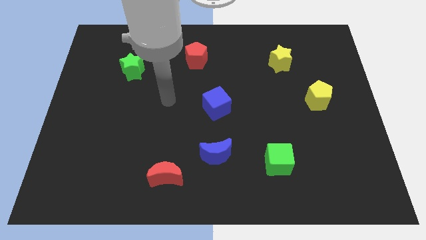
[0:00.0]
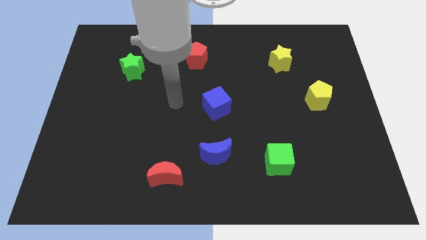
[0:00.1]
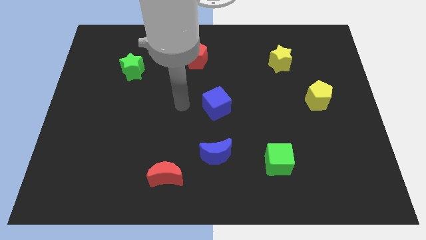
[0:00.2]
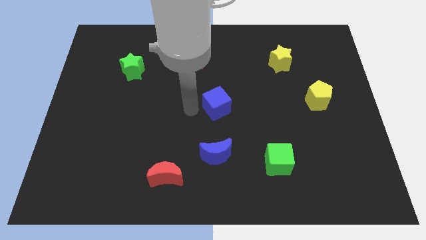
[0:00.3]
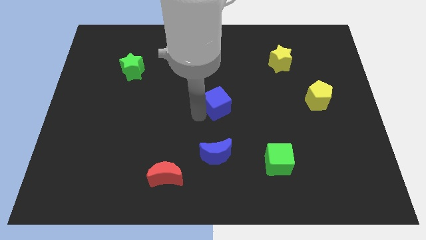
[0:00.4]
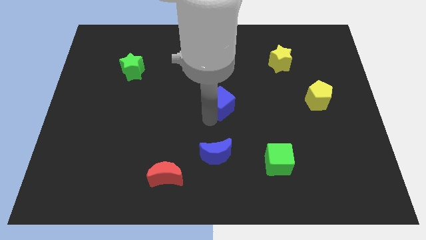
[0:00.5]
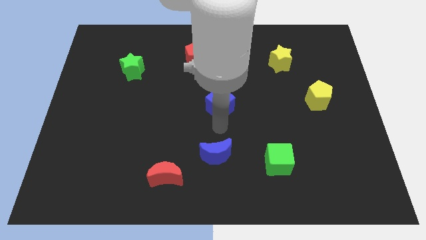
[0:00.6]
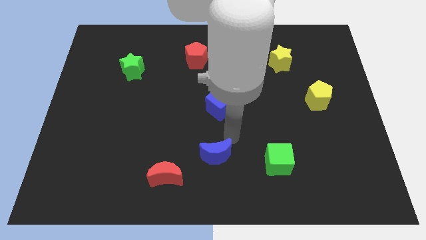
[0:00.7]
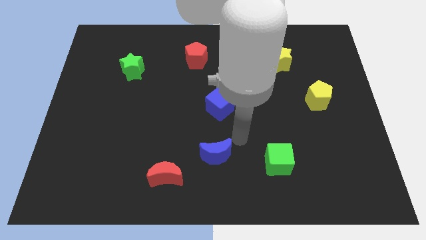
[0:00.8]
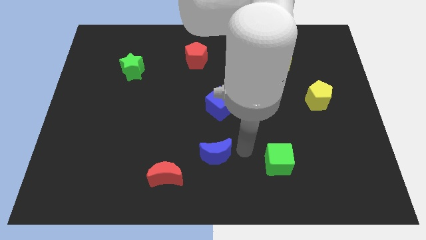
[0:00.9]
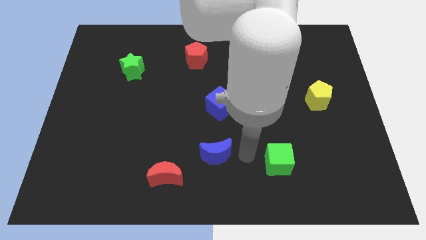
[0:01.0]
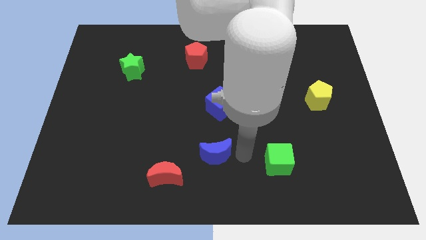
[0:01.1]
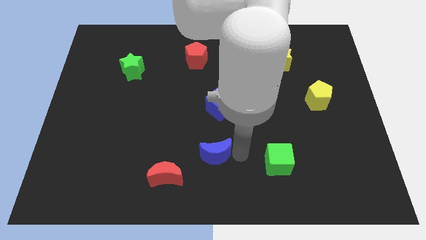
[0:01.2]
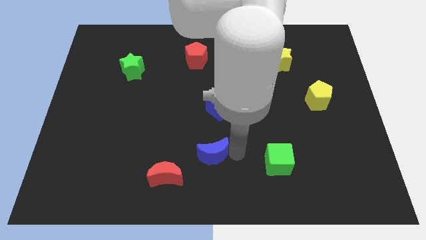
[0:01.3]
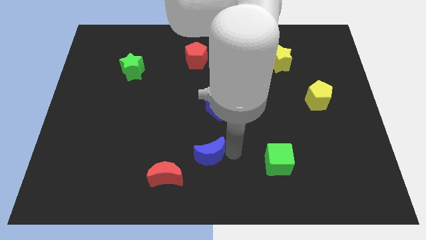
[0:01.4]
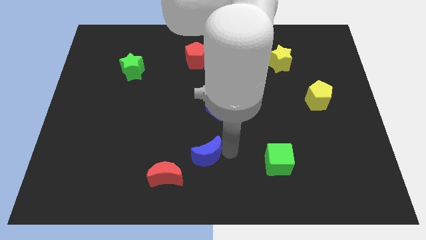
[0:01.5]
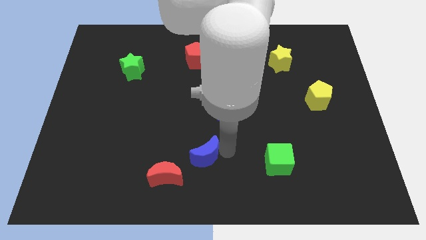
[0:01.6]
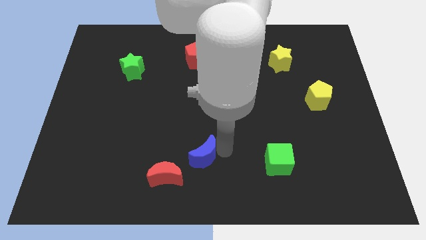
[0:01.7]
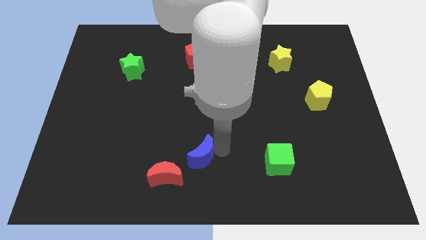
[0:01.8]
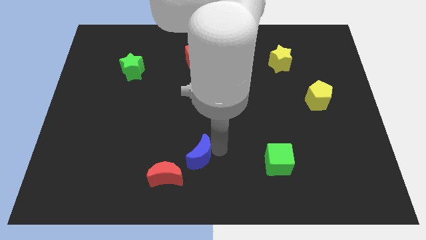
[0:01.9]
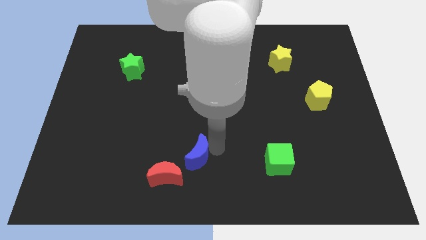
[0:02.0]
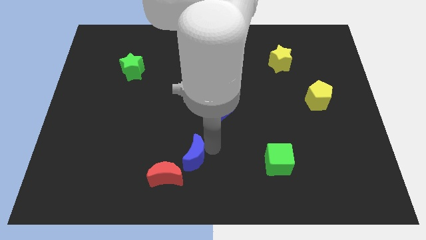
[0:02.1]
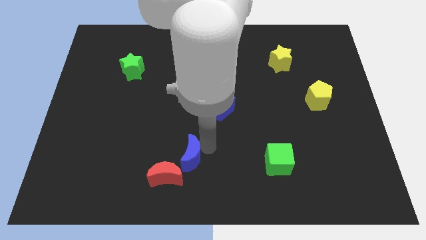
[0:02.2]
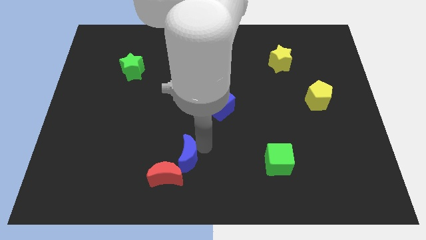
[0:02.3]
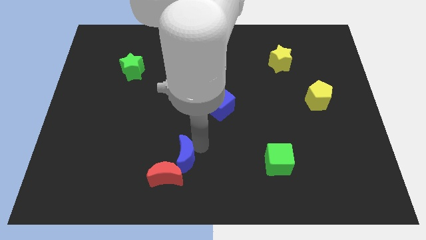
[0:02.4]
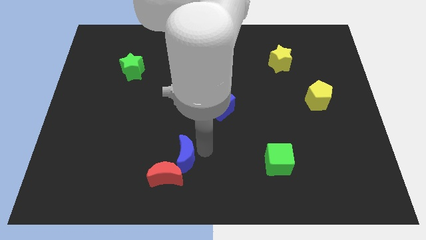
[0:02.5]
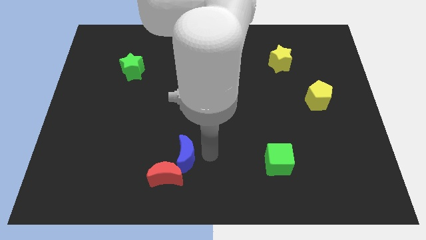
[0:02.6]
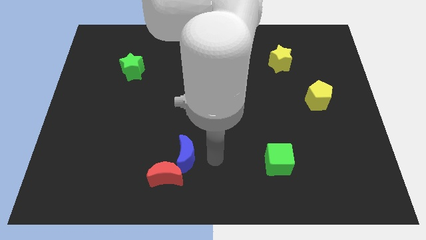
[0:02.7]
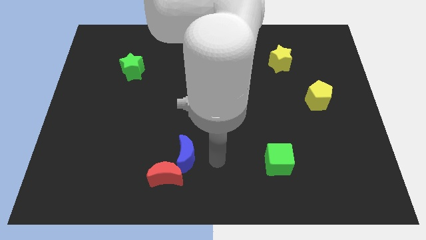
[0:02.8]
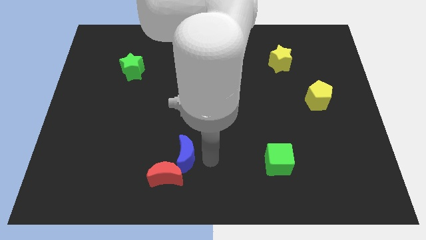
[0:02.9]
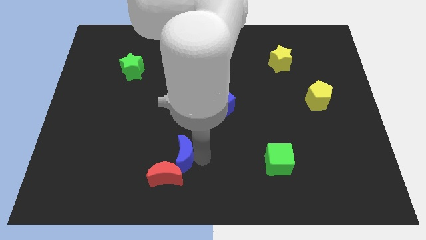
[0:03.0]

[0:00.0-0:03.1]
slide the blue moon a bit to the left

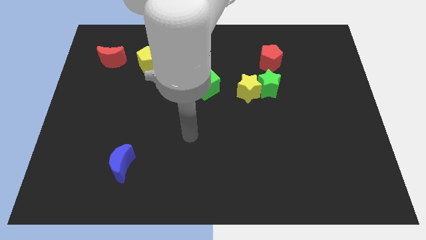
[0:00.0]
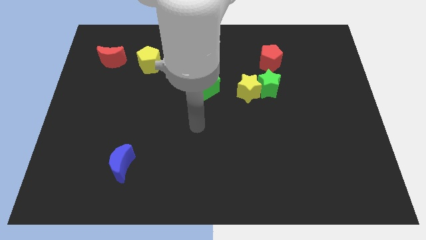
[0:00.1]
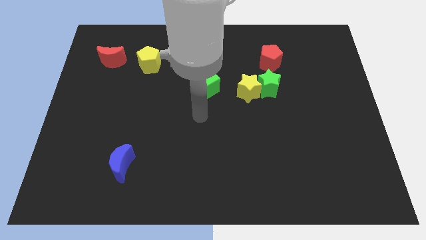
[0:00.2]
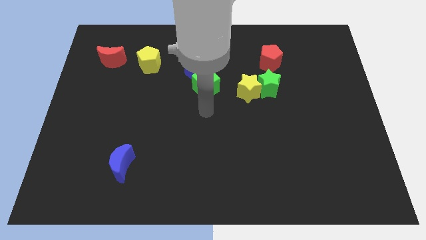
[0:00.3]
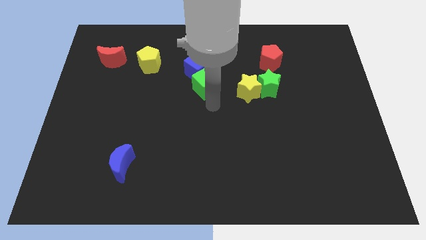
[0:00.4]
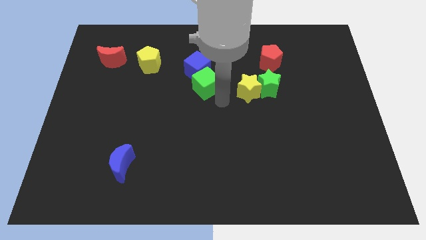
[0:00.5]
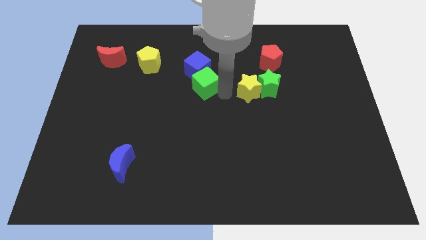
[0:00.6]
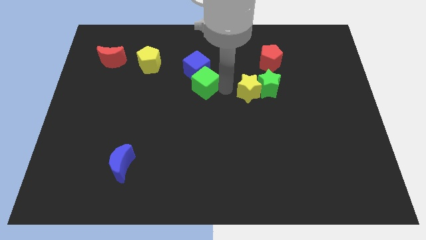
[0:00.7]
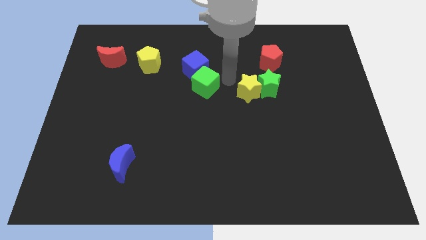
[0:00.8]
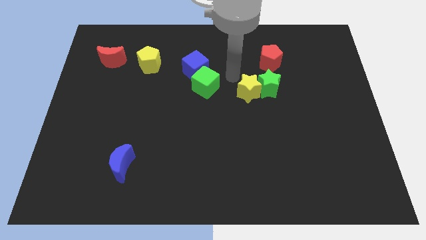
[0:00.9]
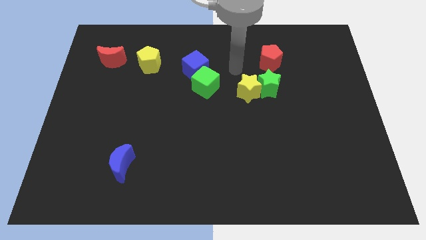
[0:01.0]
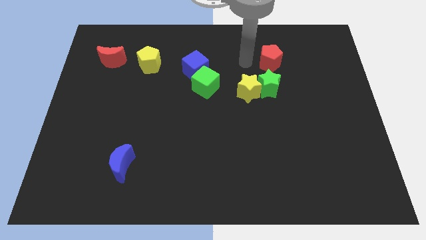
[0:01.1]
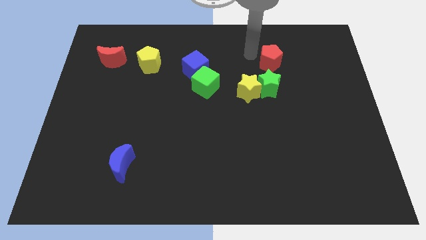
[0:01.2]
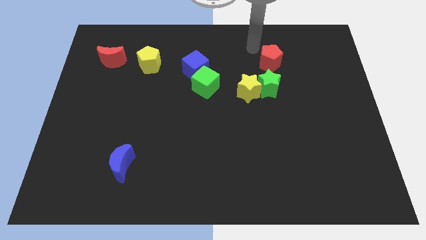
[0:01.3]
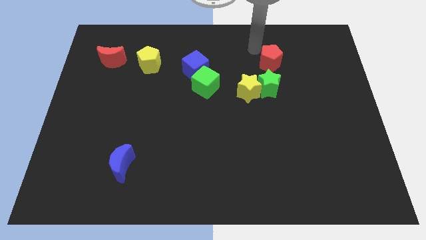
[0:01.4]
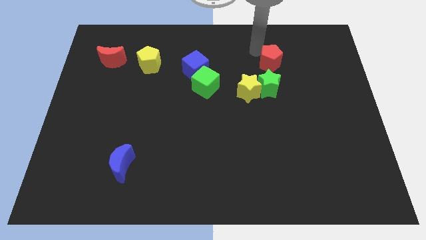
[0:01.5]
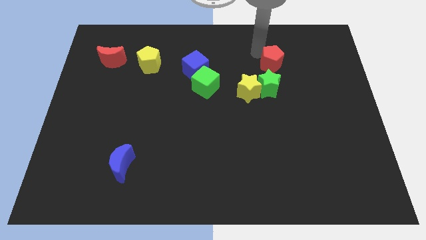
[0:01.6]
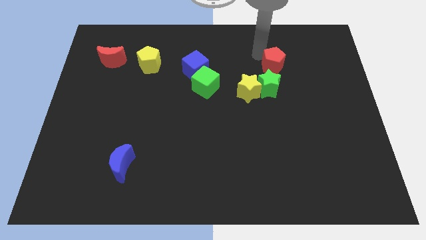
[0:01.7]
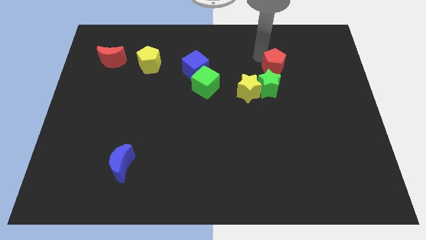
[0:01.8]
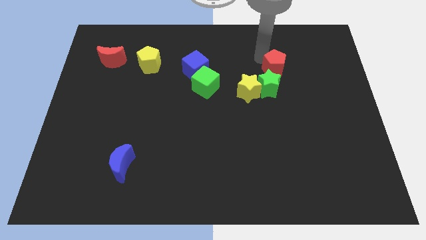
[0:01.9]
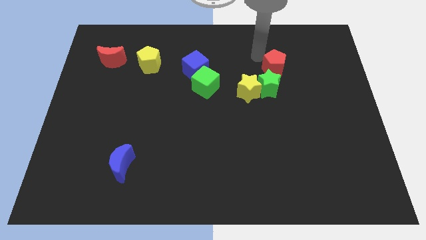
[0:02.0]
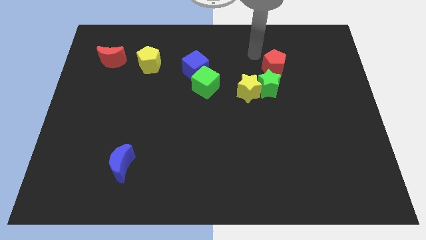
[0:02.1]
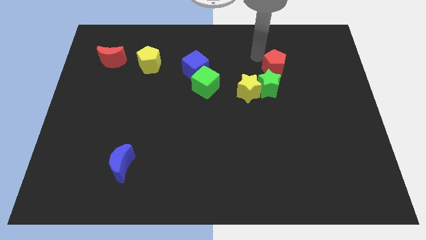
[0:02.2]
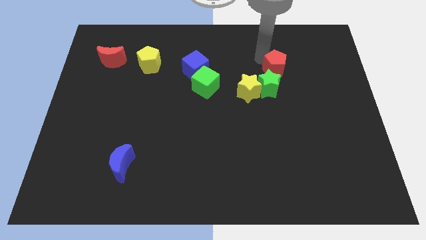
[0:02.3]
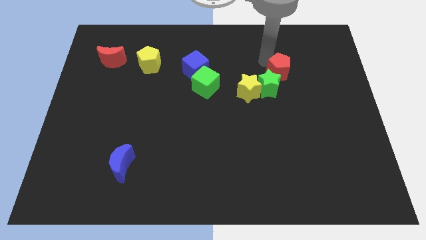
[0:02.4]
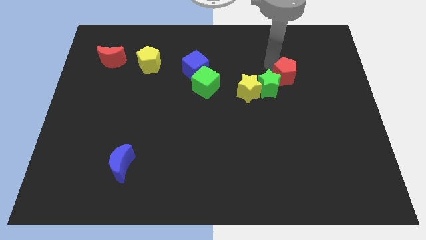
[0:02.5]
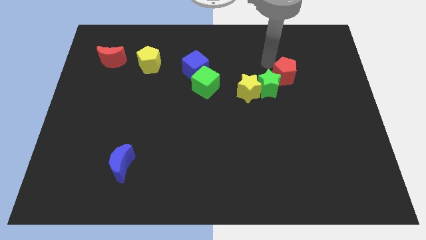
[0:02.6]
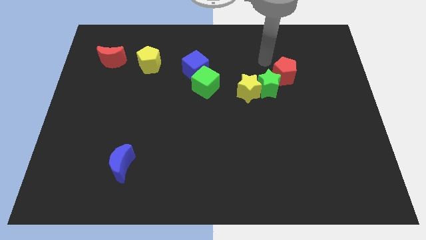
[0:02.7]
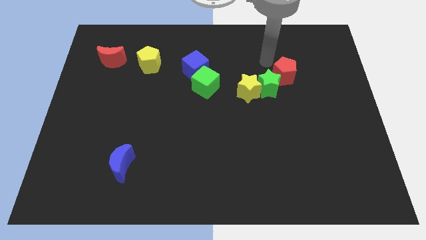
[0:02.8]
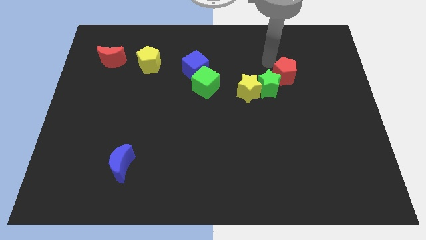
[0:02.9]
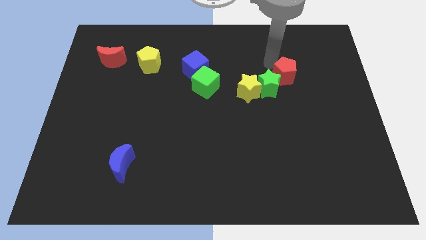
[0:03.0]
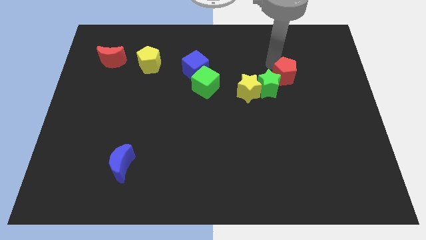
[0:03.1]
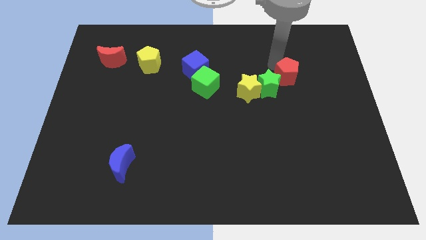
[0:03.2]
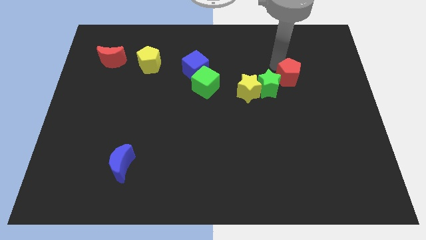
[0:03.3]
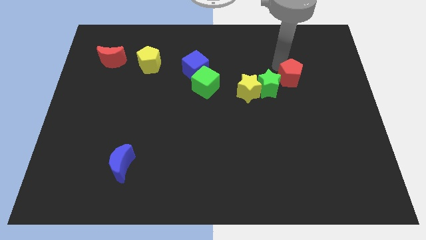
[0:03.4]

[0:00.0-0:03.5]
push the red pentagon a little diagonally down and right

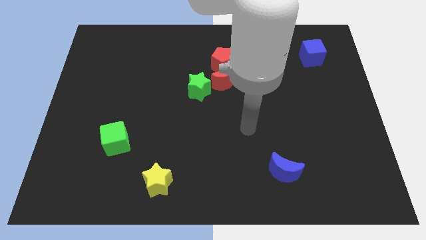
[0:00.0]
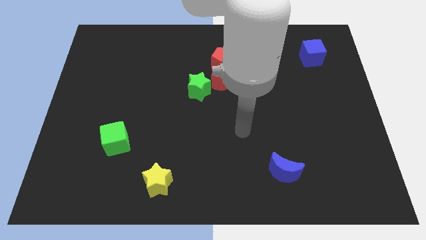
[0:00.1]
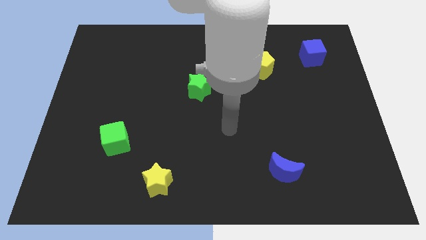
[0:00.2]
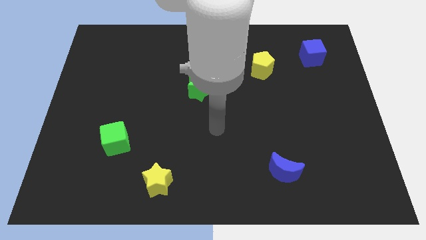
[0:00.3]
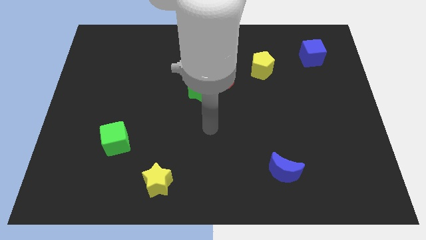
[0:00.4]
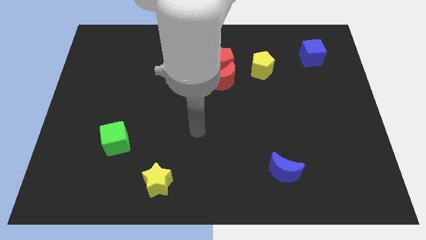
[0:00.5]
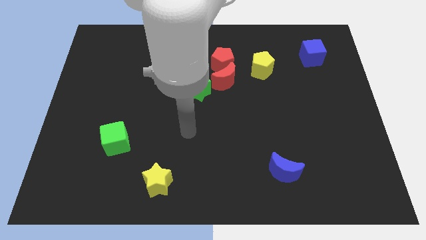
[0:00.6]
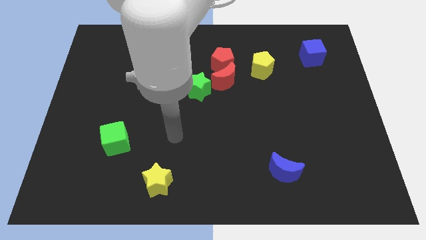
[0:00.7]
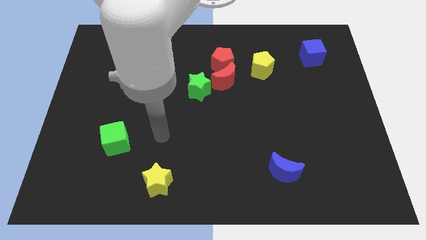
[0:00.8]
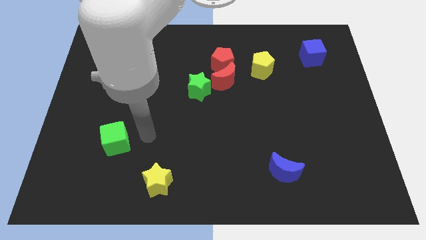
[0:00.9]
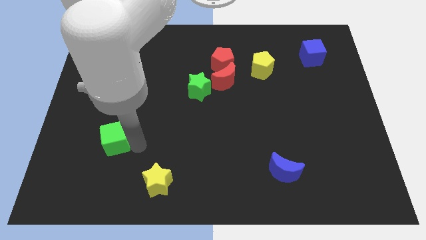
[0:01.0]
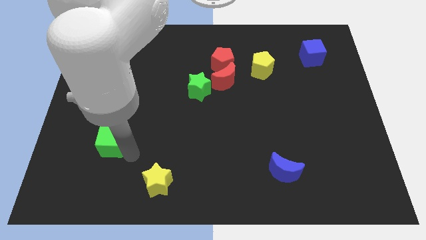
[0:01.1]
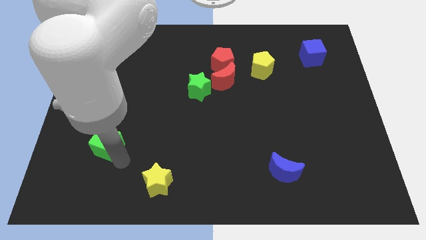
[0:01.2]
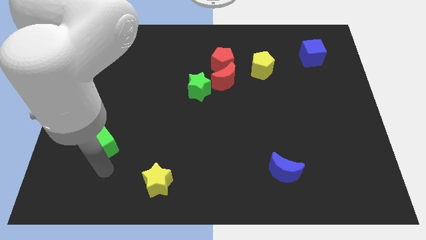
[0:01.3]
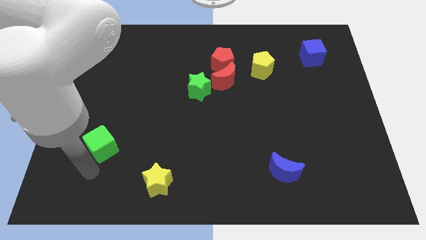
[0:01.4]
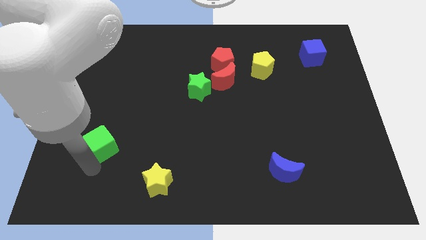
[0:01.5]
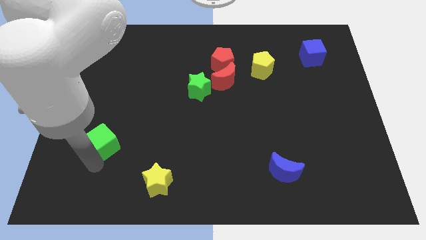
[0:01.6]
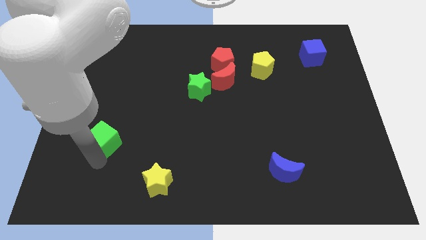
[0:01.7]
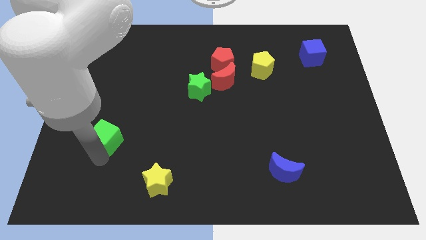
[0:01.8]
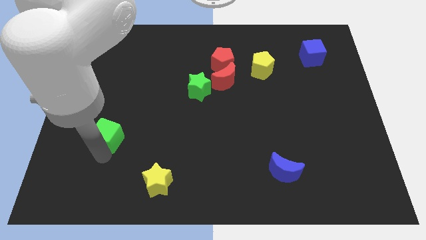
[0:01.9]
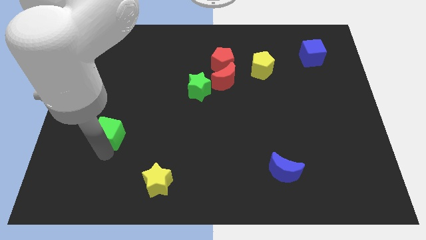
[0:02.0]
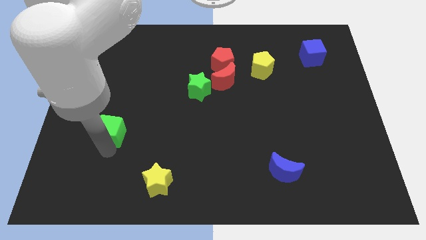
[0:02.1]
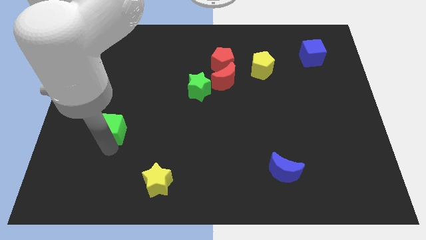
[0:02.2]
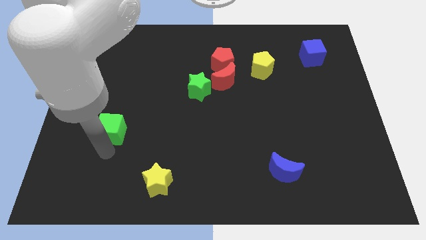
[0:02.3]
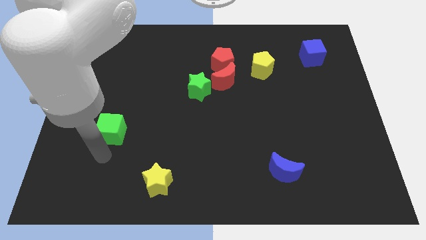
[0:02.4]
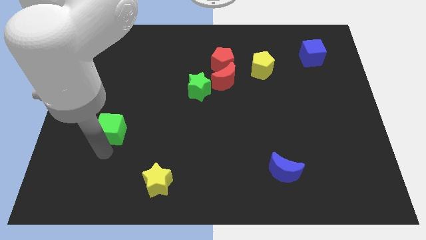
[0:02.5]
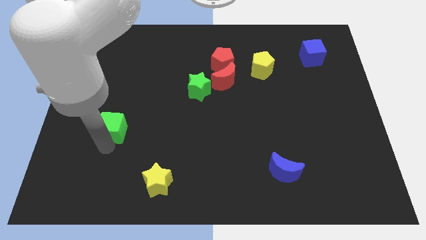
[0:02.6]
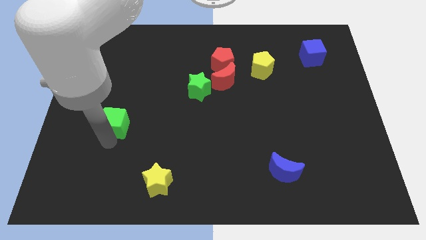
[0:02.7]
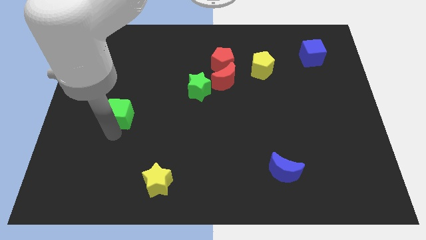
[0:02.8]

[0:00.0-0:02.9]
push the green cube upwards a little
